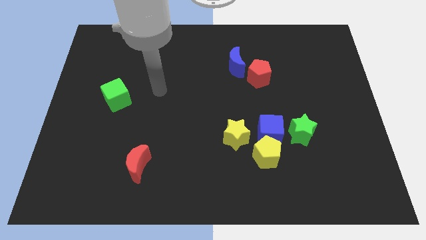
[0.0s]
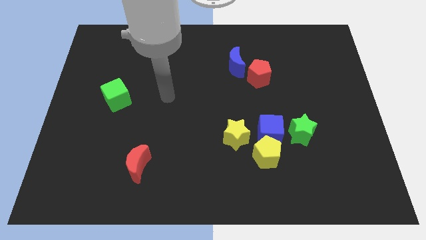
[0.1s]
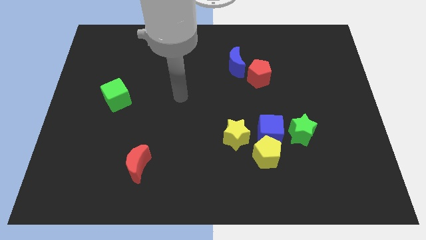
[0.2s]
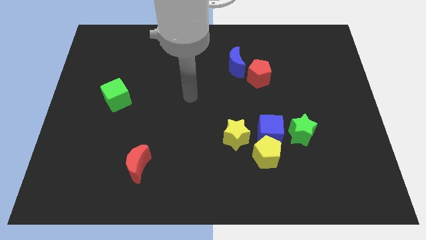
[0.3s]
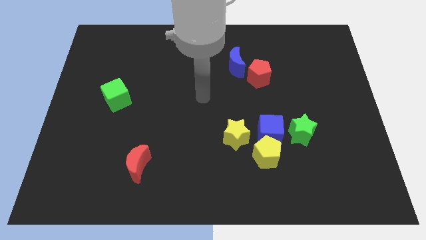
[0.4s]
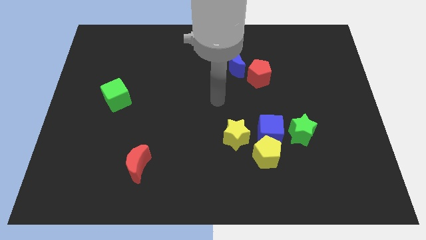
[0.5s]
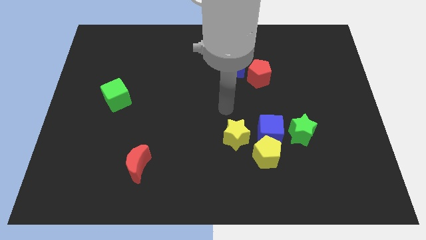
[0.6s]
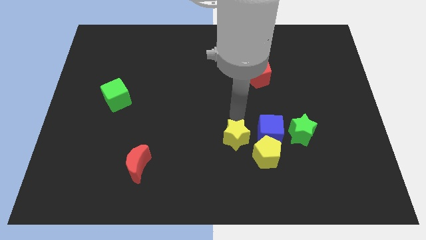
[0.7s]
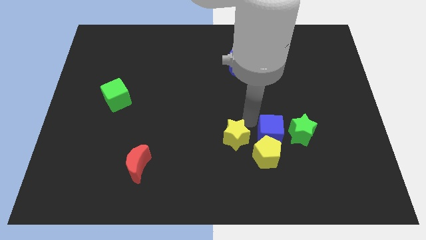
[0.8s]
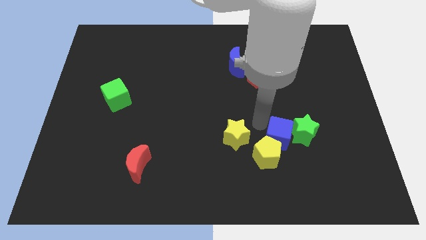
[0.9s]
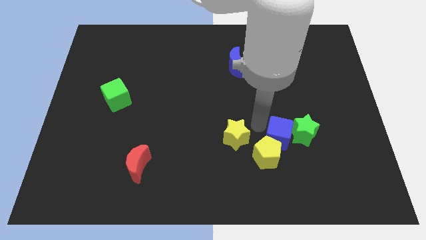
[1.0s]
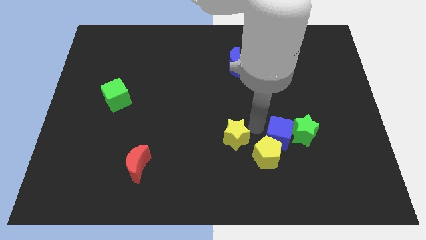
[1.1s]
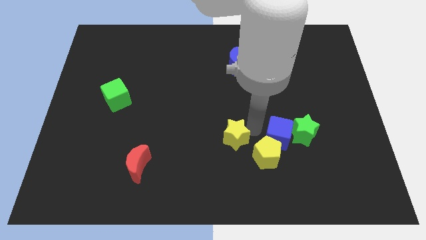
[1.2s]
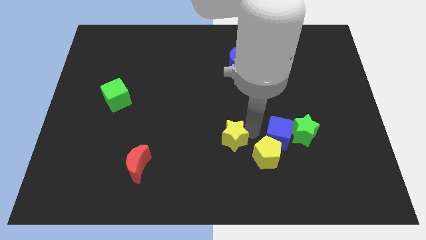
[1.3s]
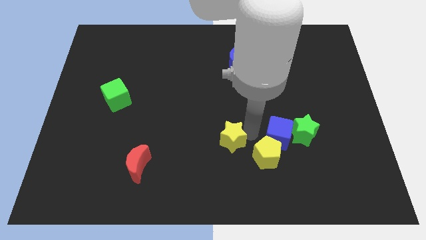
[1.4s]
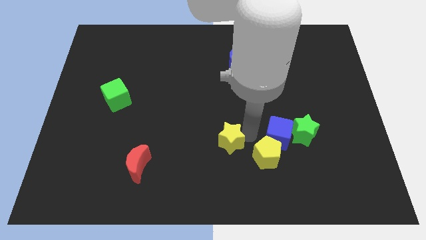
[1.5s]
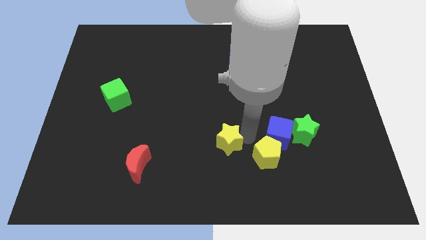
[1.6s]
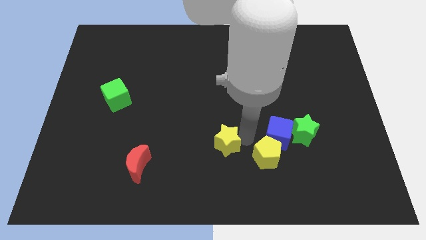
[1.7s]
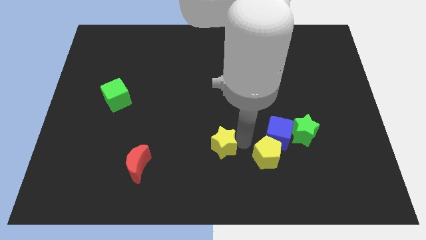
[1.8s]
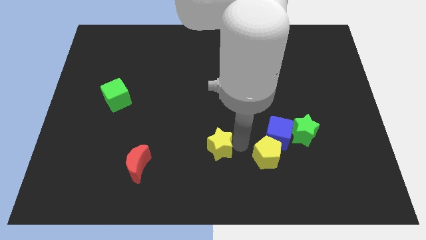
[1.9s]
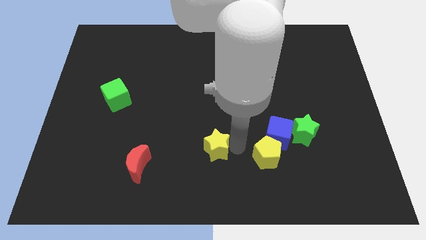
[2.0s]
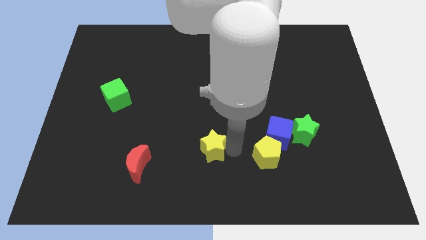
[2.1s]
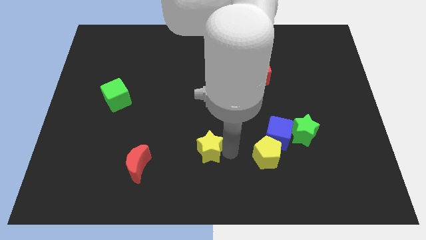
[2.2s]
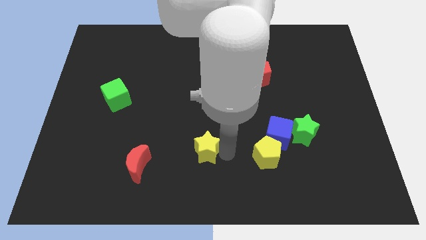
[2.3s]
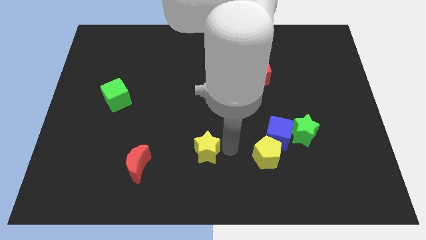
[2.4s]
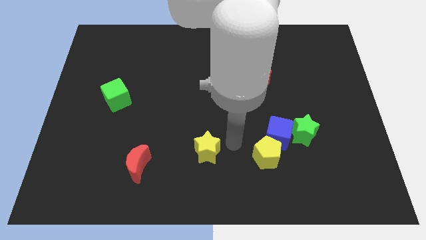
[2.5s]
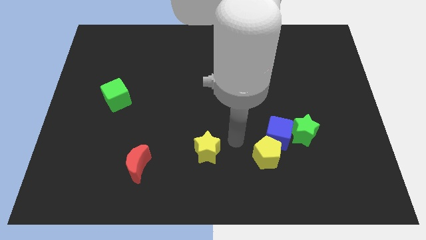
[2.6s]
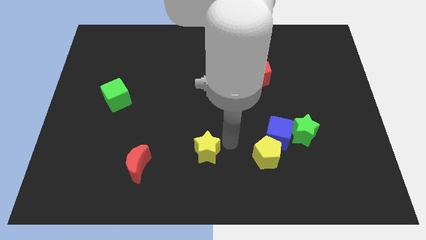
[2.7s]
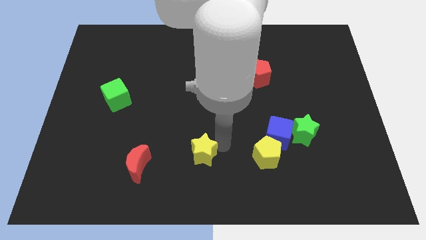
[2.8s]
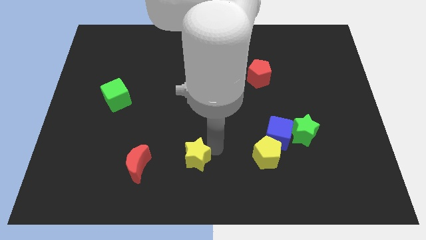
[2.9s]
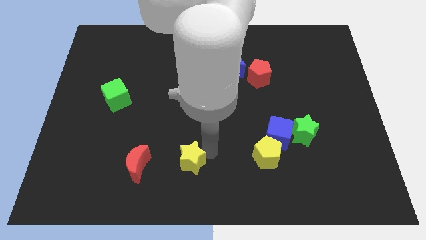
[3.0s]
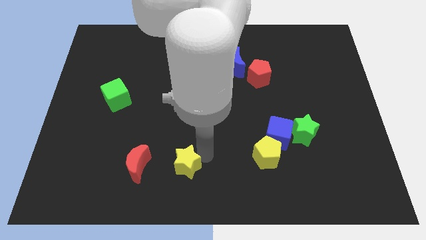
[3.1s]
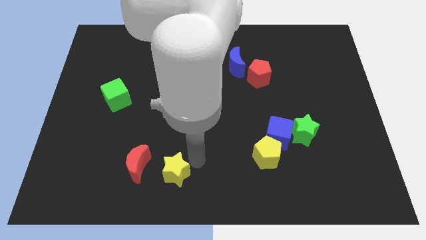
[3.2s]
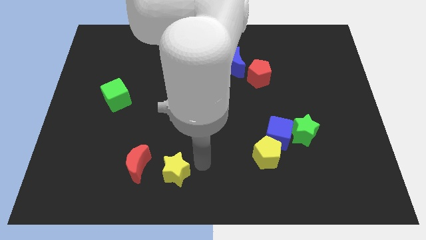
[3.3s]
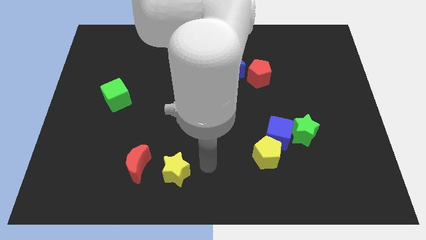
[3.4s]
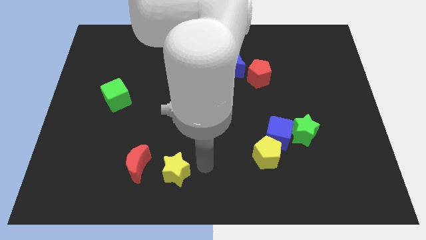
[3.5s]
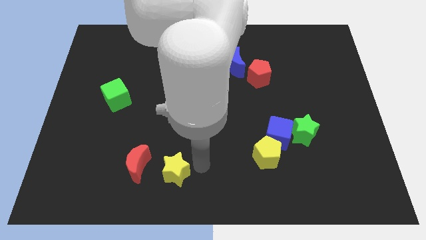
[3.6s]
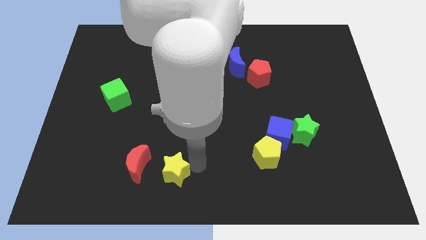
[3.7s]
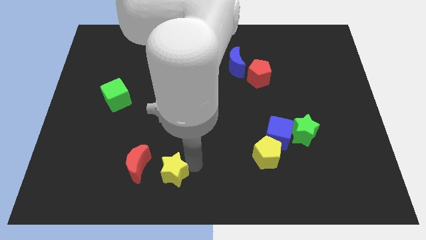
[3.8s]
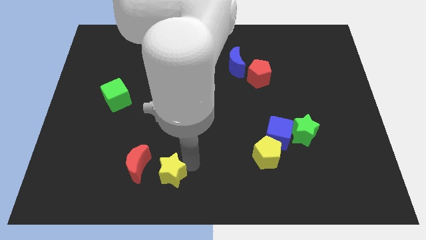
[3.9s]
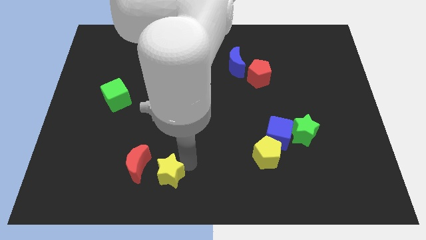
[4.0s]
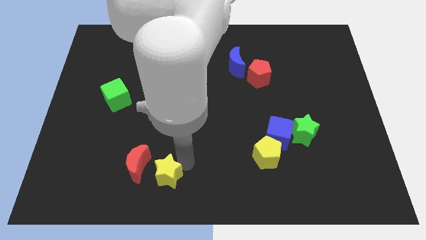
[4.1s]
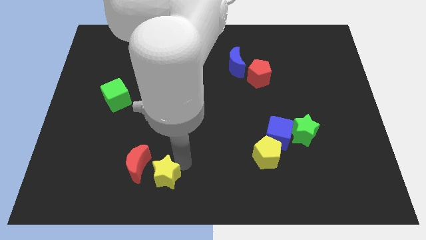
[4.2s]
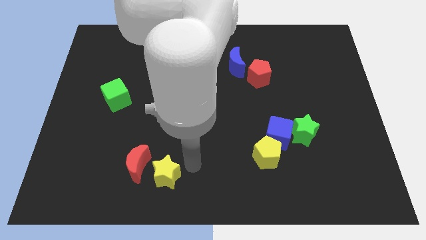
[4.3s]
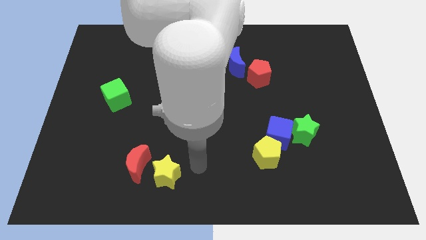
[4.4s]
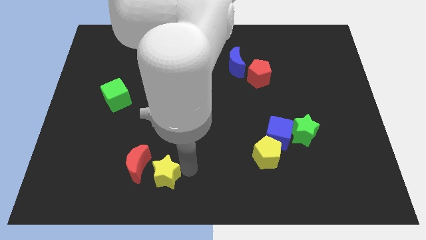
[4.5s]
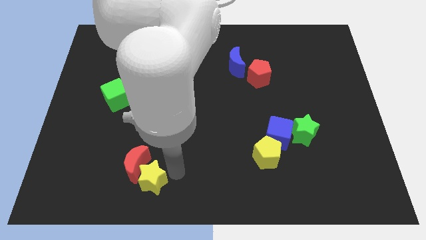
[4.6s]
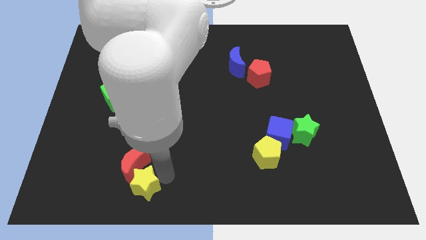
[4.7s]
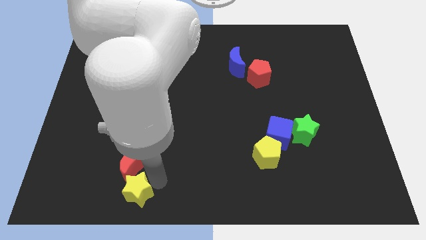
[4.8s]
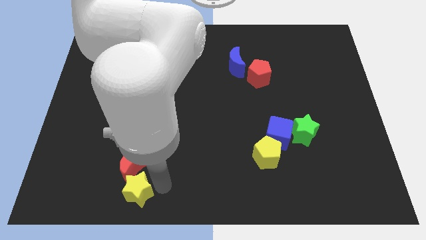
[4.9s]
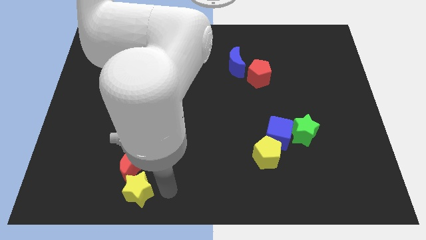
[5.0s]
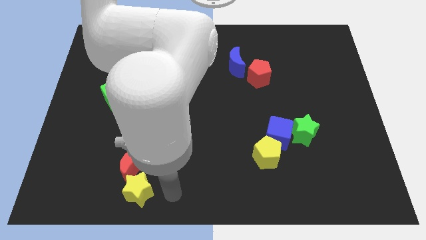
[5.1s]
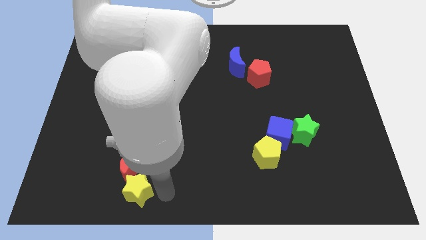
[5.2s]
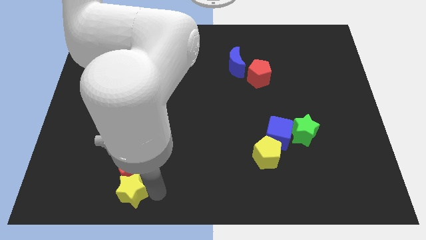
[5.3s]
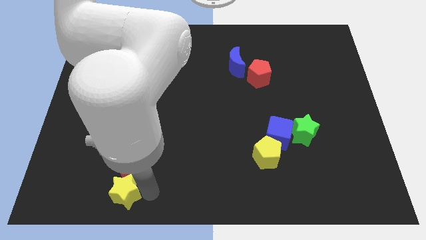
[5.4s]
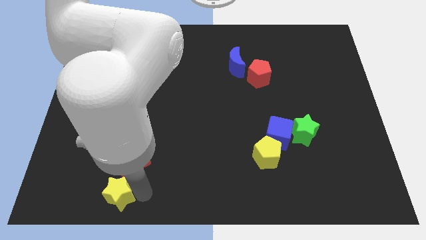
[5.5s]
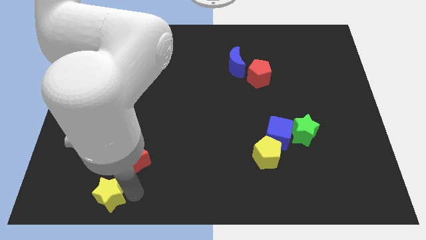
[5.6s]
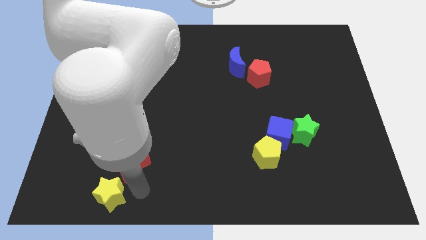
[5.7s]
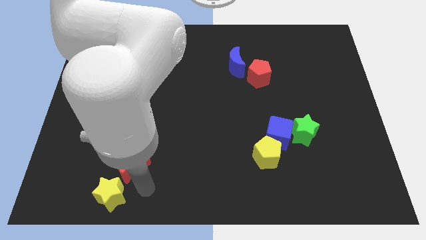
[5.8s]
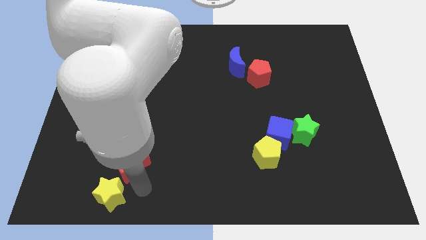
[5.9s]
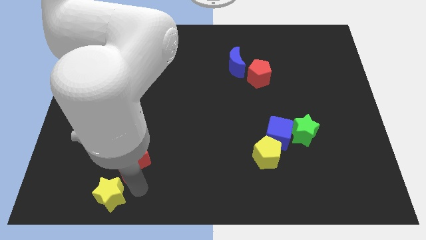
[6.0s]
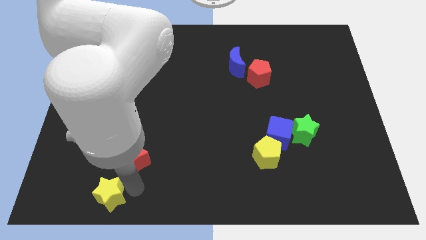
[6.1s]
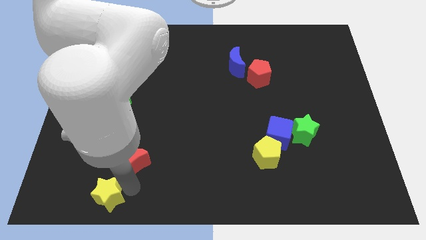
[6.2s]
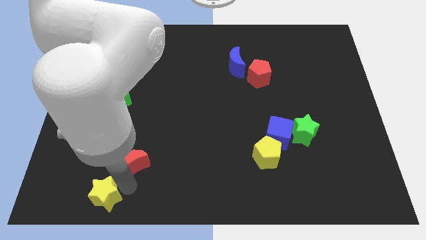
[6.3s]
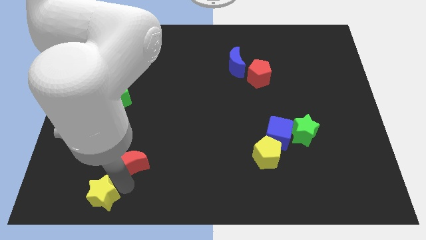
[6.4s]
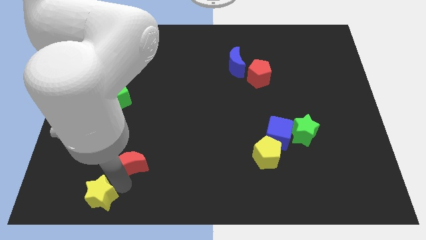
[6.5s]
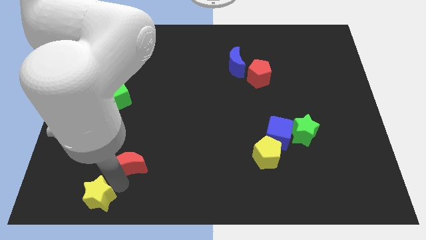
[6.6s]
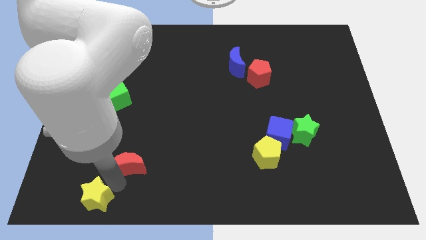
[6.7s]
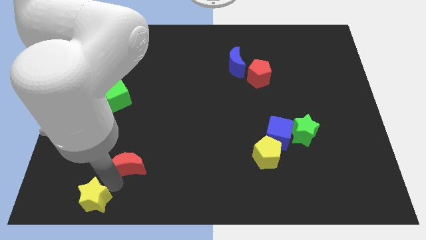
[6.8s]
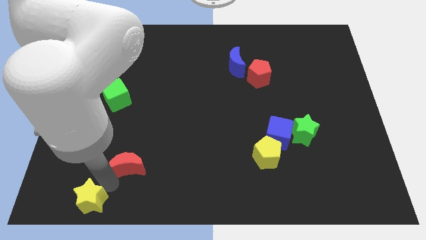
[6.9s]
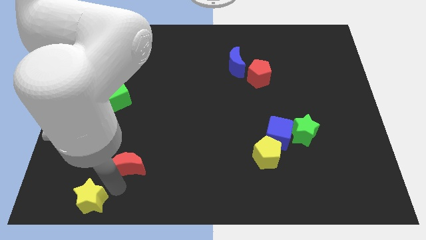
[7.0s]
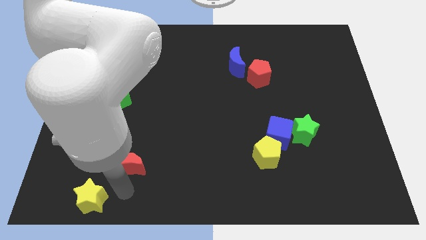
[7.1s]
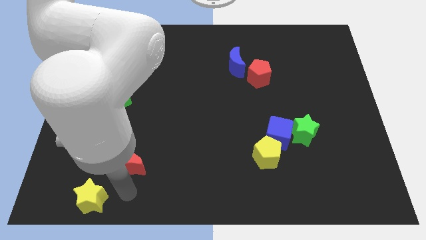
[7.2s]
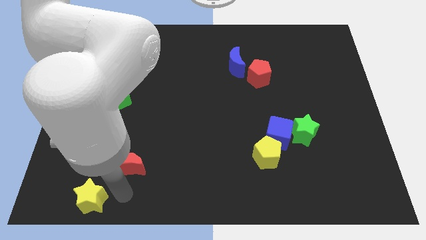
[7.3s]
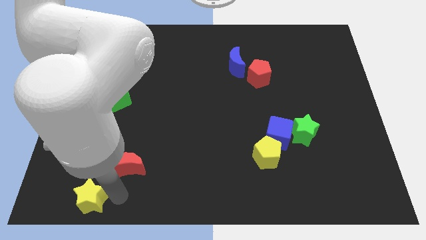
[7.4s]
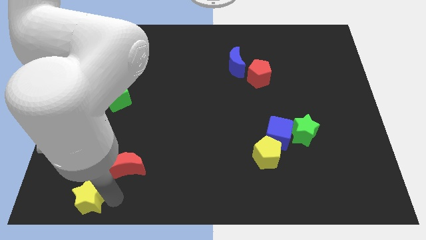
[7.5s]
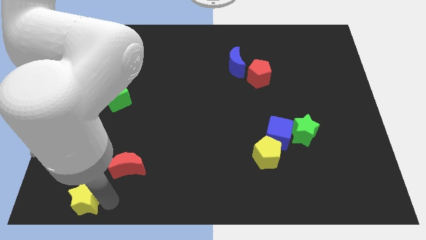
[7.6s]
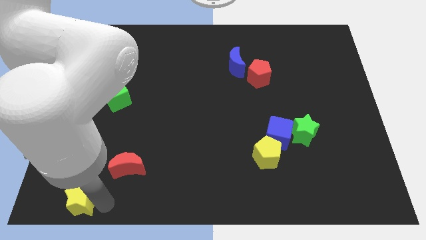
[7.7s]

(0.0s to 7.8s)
slide the yellow star to the bottom left corner
